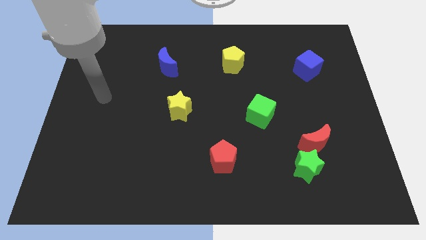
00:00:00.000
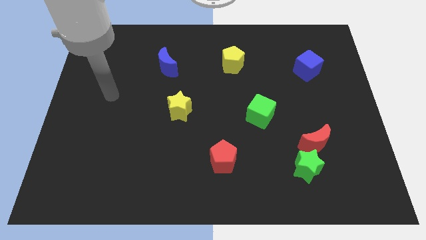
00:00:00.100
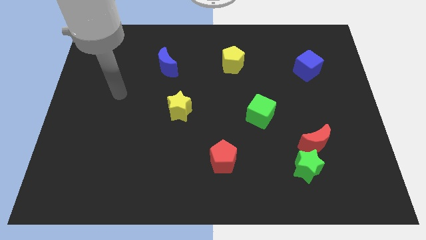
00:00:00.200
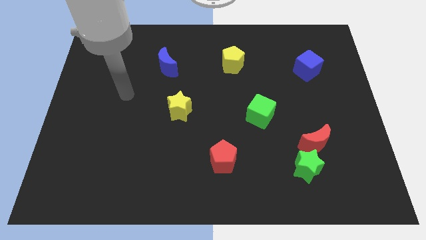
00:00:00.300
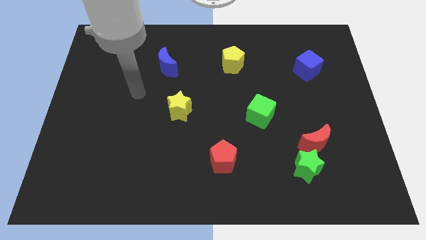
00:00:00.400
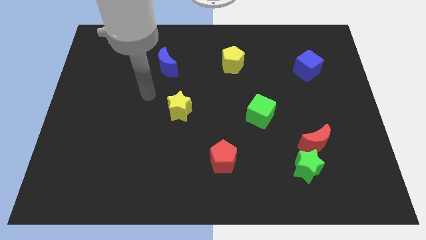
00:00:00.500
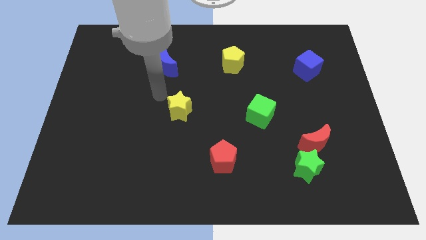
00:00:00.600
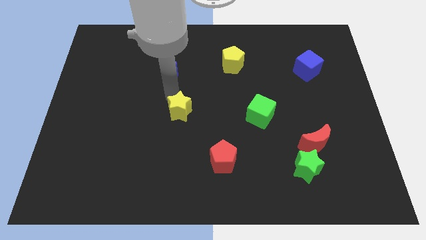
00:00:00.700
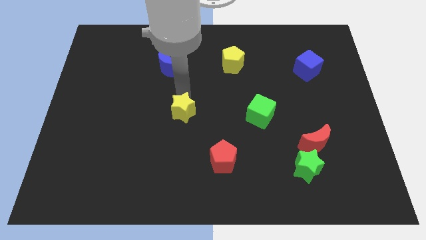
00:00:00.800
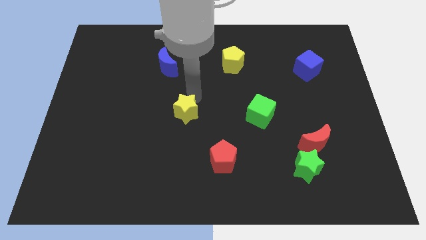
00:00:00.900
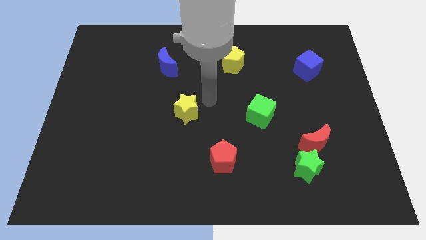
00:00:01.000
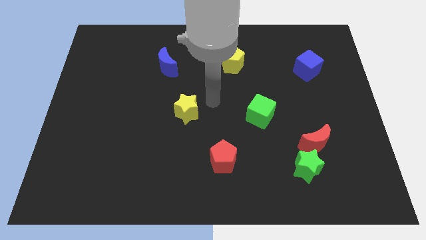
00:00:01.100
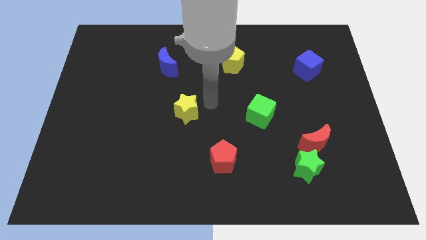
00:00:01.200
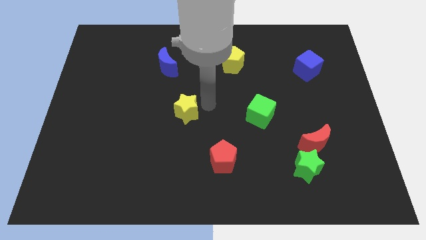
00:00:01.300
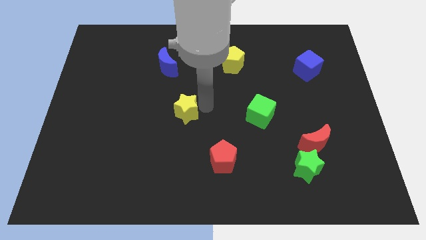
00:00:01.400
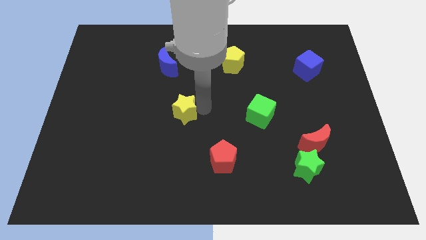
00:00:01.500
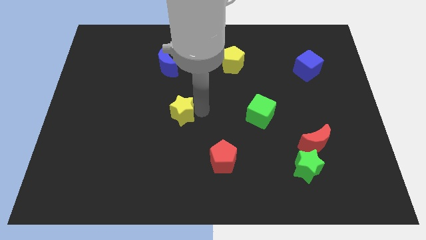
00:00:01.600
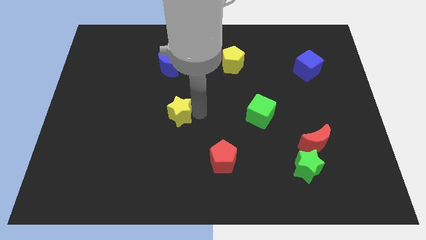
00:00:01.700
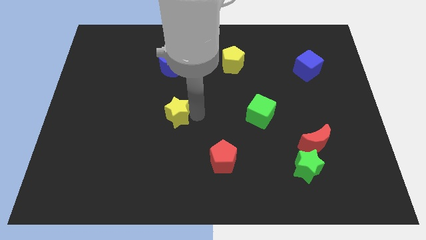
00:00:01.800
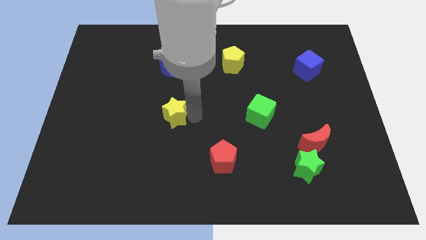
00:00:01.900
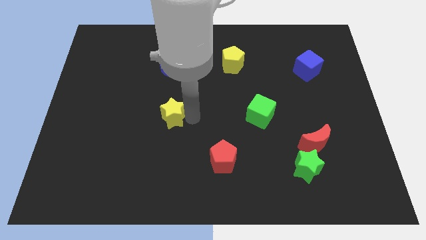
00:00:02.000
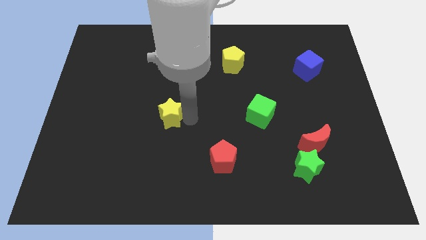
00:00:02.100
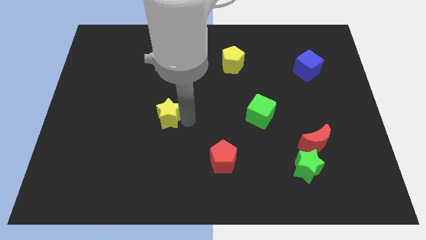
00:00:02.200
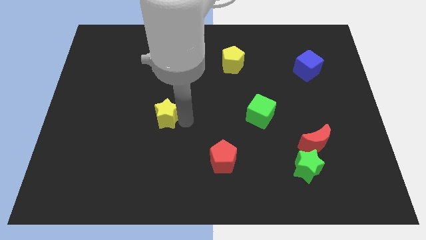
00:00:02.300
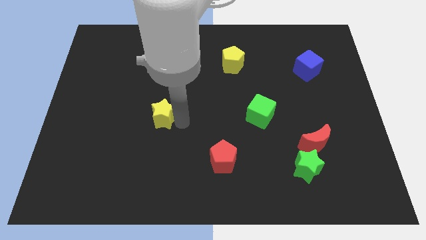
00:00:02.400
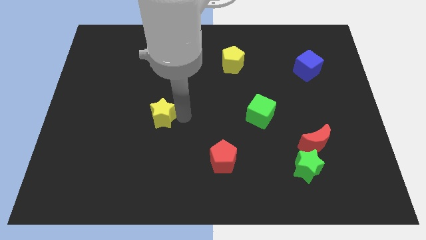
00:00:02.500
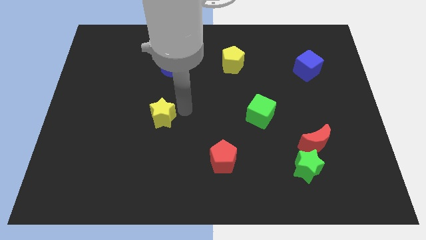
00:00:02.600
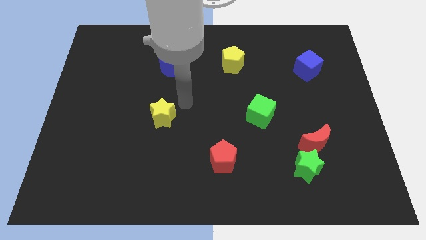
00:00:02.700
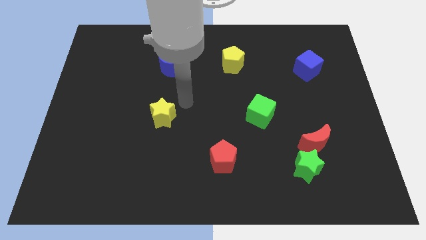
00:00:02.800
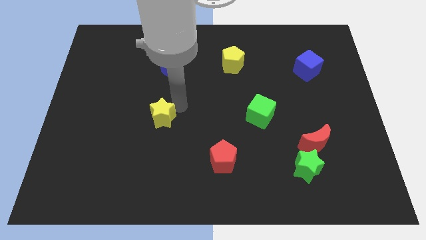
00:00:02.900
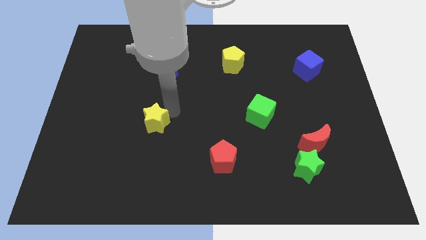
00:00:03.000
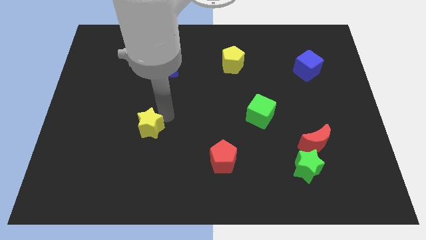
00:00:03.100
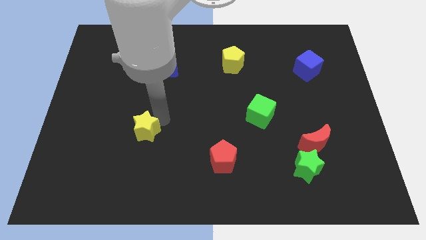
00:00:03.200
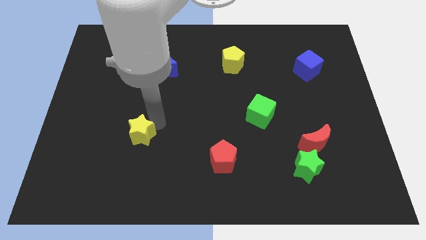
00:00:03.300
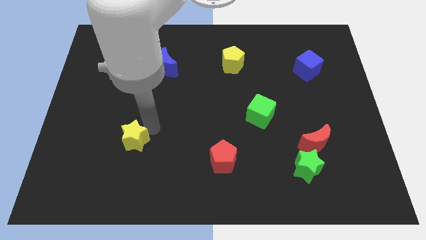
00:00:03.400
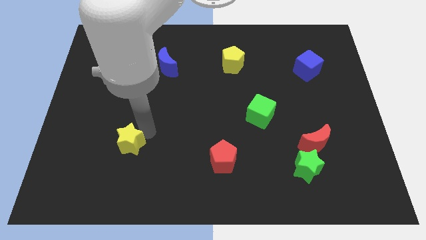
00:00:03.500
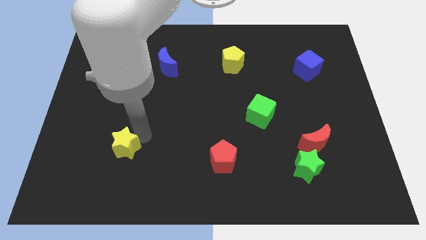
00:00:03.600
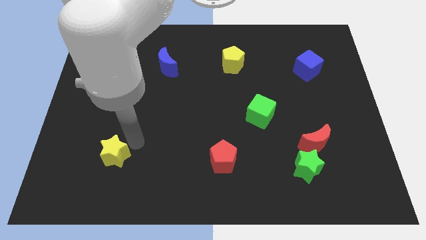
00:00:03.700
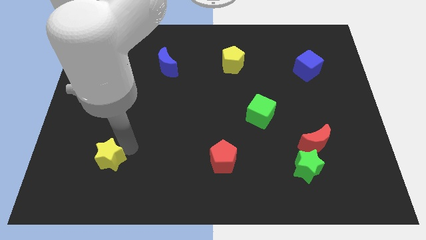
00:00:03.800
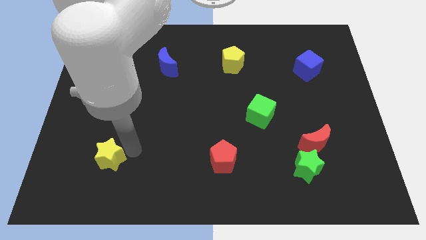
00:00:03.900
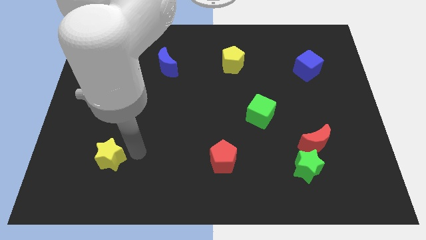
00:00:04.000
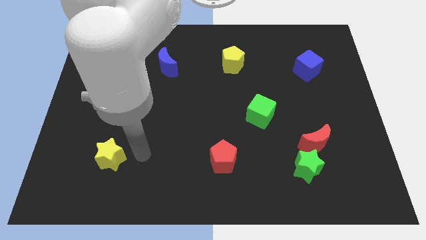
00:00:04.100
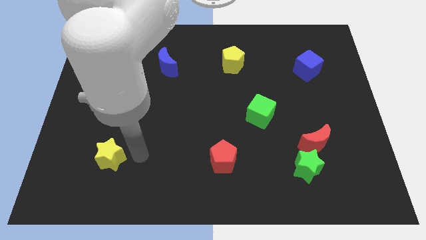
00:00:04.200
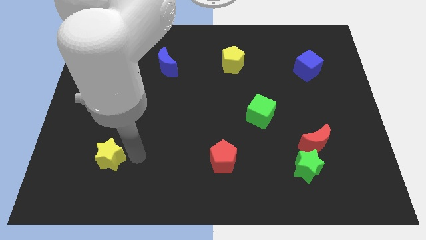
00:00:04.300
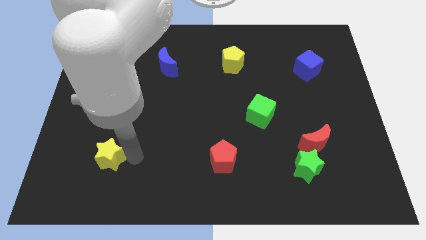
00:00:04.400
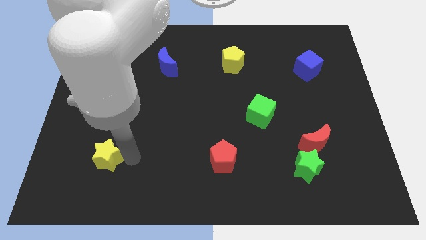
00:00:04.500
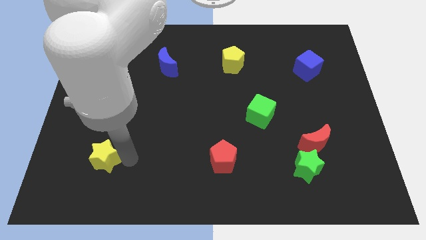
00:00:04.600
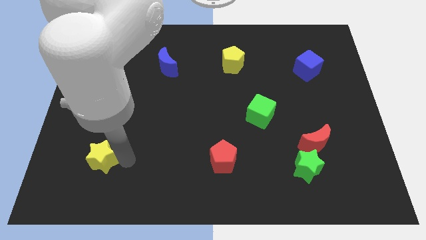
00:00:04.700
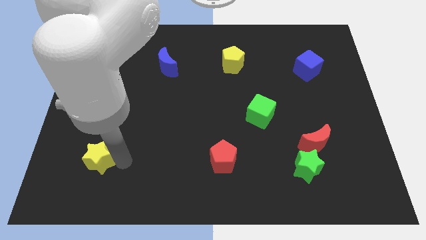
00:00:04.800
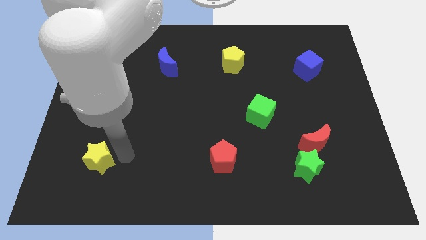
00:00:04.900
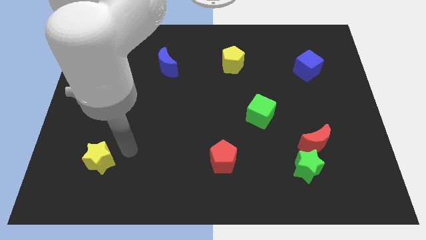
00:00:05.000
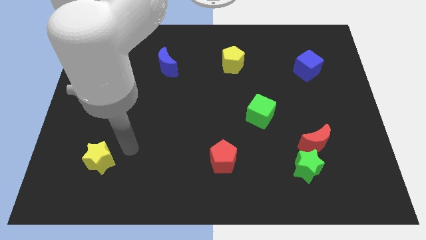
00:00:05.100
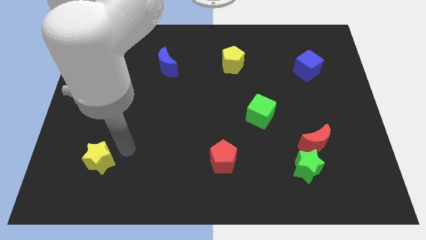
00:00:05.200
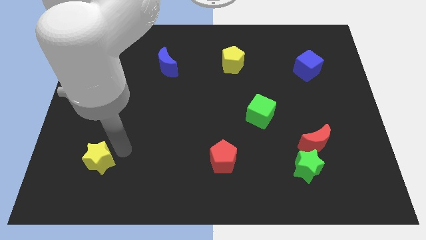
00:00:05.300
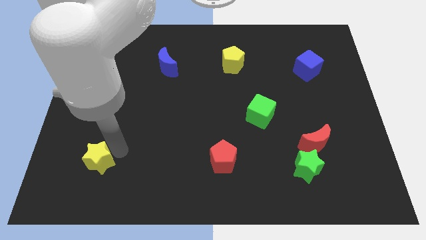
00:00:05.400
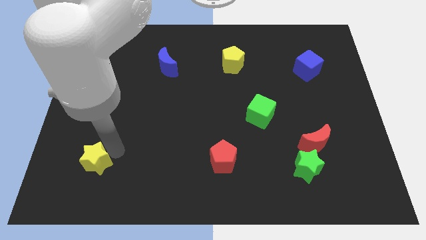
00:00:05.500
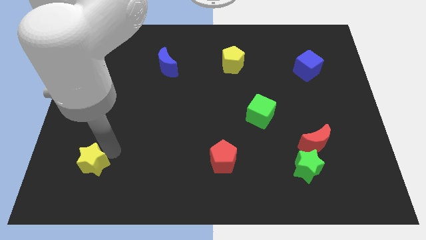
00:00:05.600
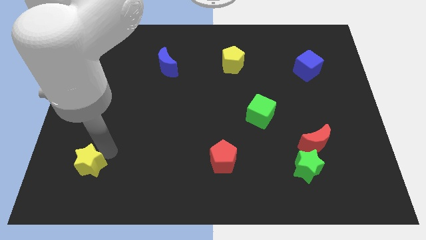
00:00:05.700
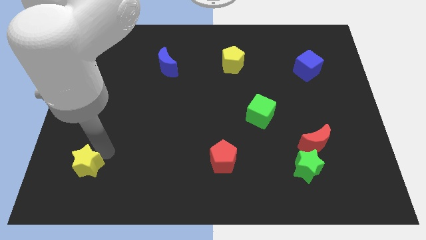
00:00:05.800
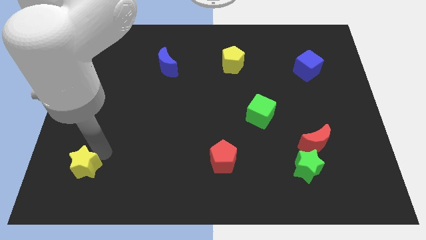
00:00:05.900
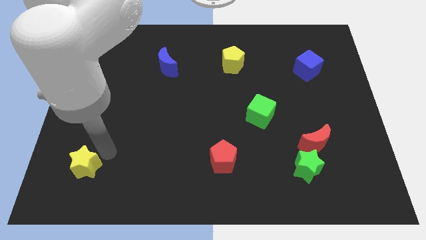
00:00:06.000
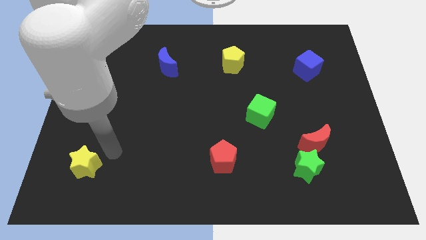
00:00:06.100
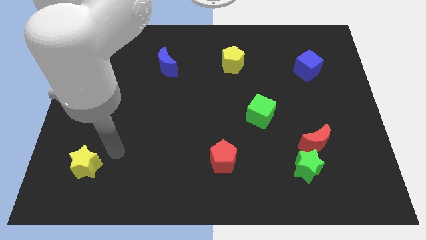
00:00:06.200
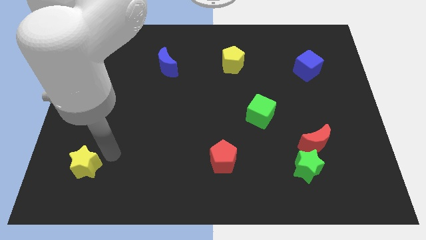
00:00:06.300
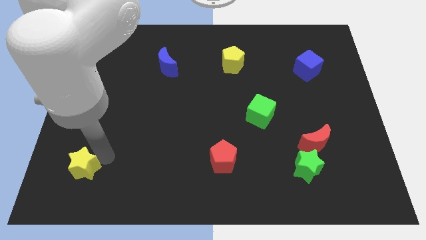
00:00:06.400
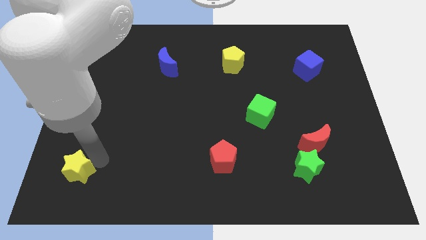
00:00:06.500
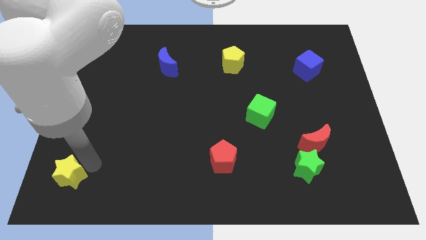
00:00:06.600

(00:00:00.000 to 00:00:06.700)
slide the yellow star to the bottom left corner
